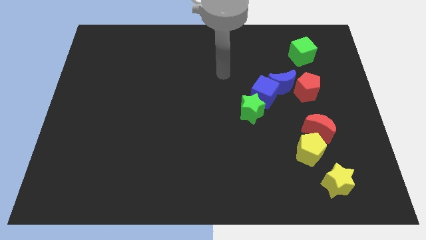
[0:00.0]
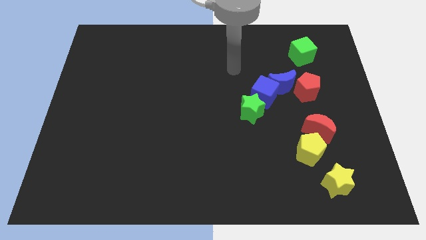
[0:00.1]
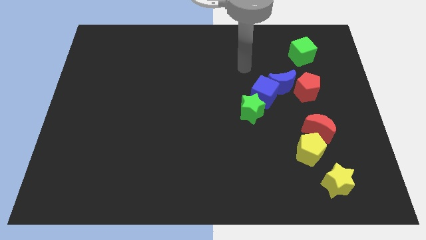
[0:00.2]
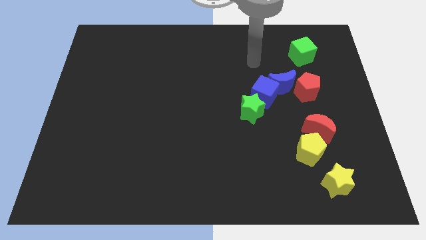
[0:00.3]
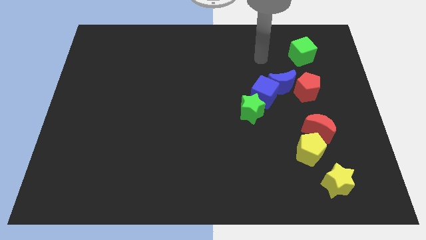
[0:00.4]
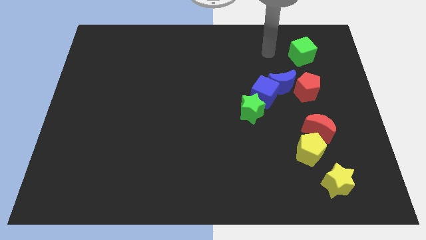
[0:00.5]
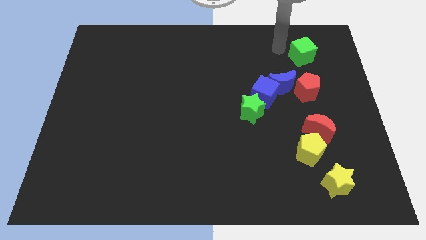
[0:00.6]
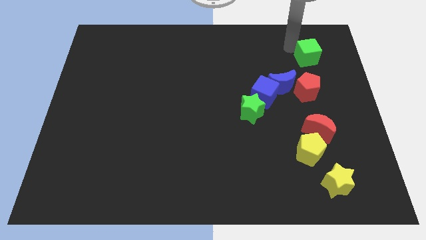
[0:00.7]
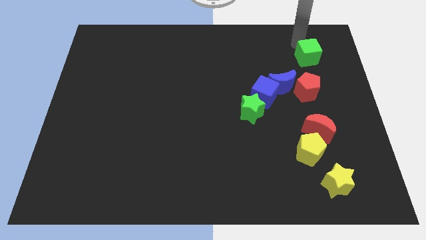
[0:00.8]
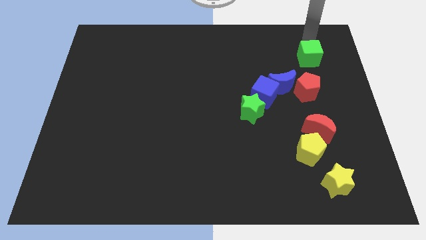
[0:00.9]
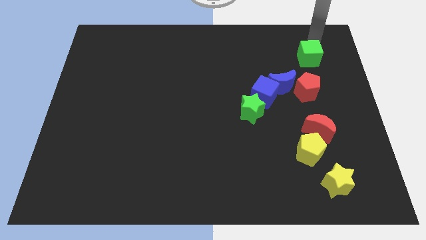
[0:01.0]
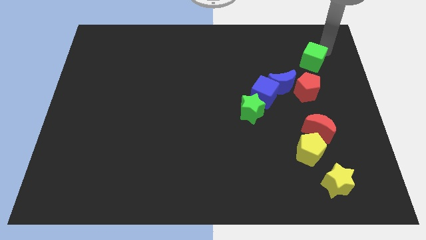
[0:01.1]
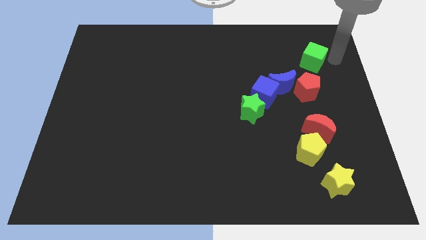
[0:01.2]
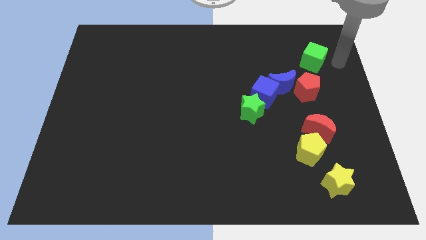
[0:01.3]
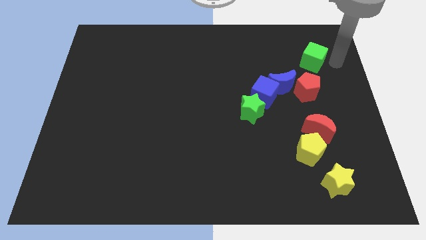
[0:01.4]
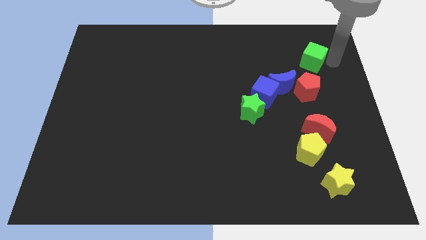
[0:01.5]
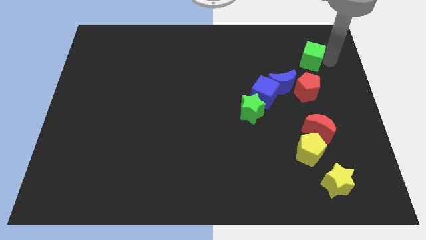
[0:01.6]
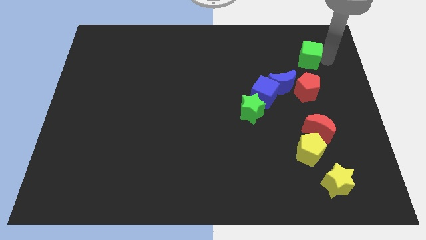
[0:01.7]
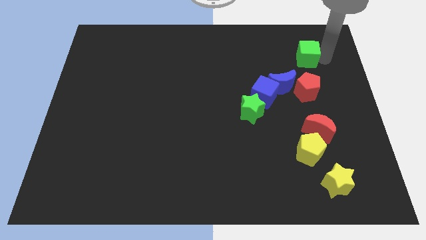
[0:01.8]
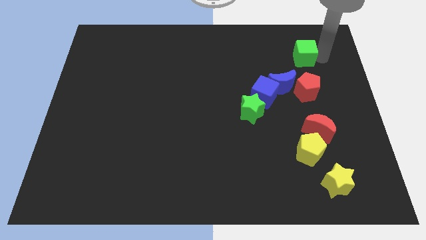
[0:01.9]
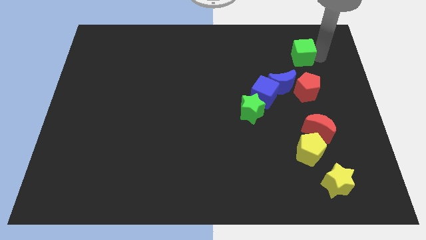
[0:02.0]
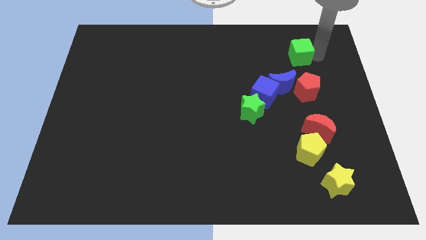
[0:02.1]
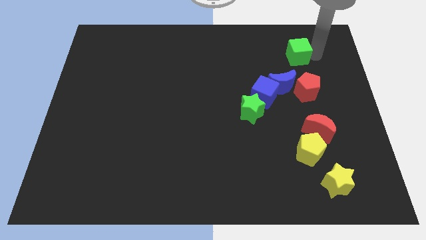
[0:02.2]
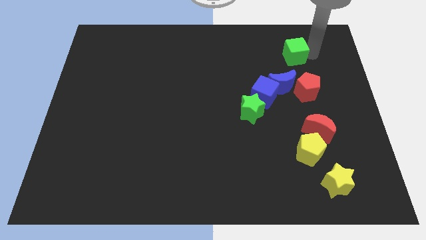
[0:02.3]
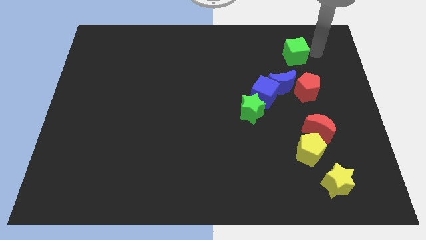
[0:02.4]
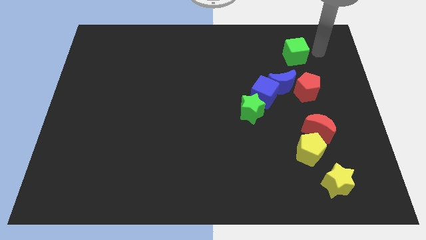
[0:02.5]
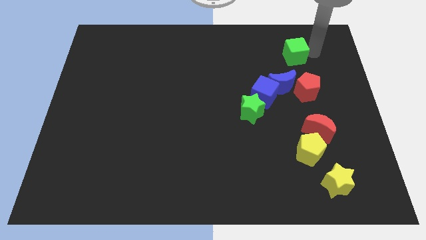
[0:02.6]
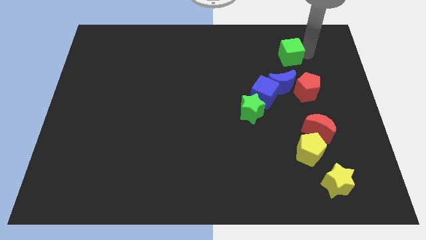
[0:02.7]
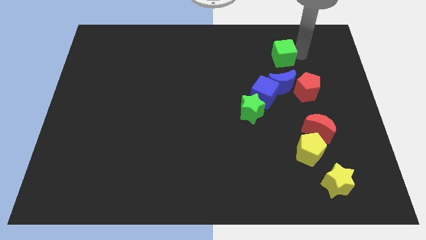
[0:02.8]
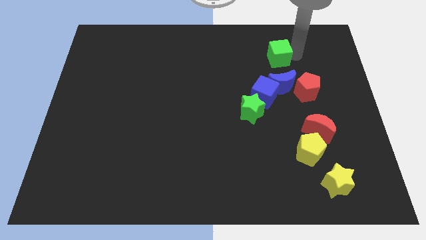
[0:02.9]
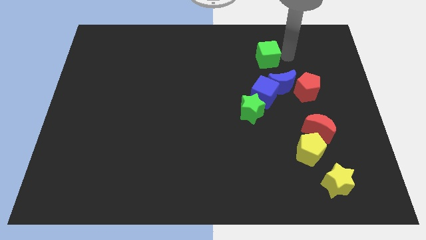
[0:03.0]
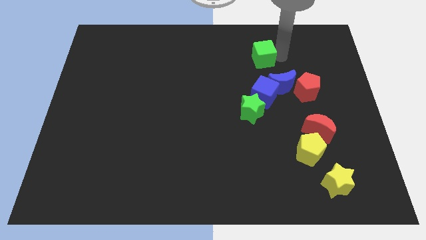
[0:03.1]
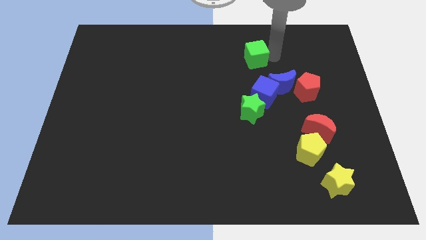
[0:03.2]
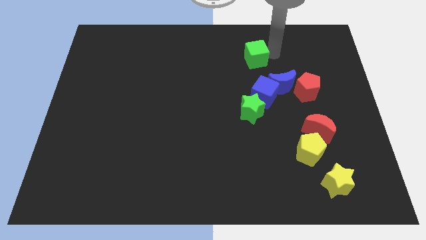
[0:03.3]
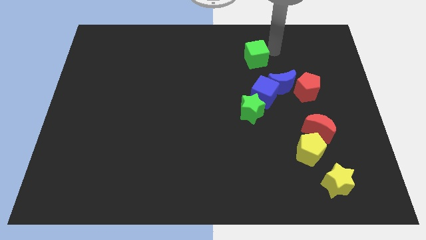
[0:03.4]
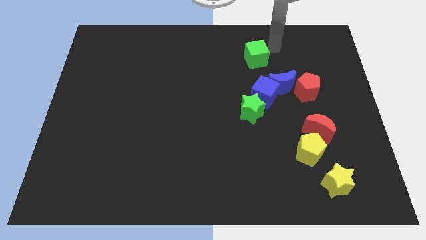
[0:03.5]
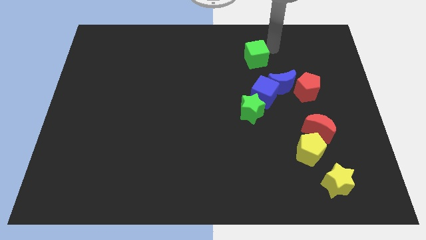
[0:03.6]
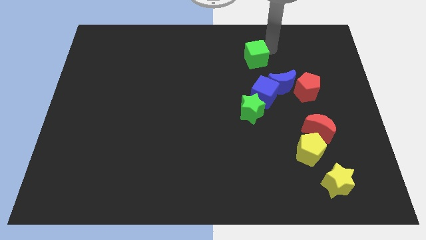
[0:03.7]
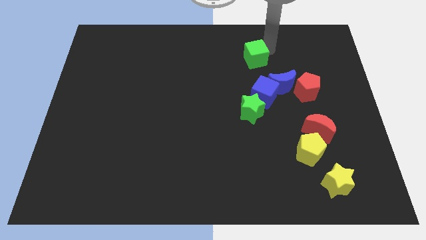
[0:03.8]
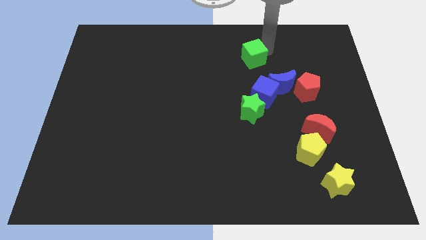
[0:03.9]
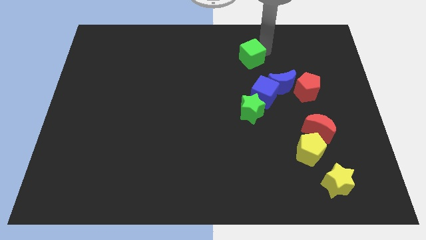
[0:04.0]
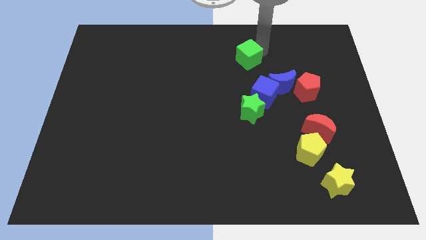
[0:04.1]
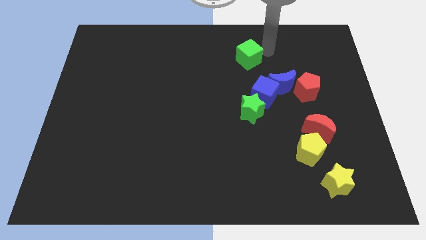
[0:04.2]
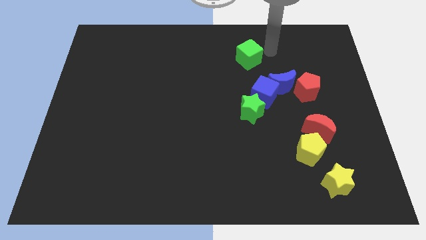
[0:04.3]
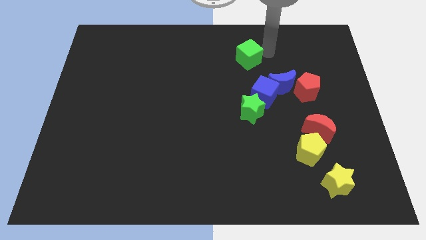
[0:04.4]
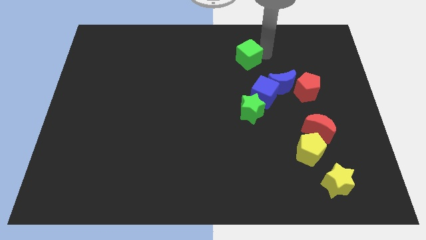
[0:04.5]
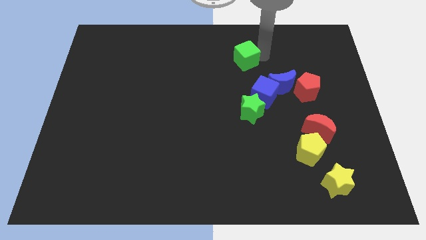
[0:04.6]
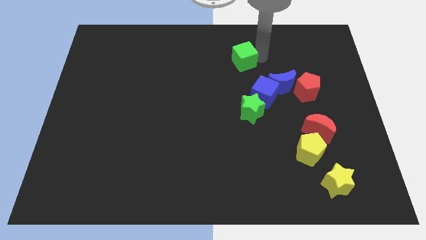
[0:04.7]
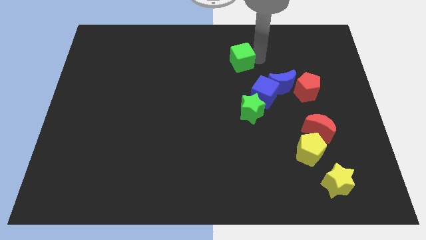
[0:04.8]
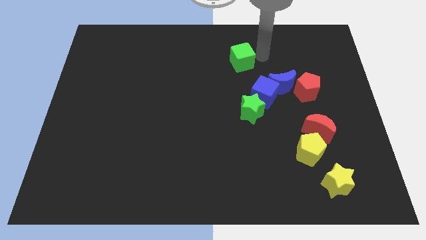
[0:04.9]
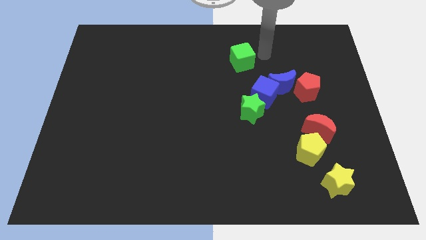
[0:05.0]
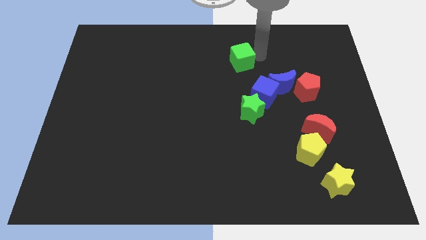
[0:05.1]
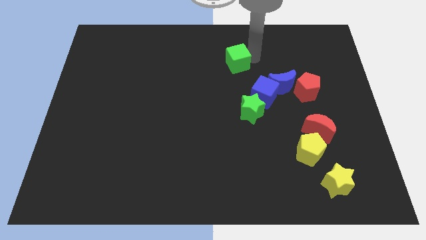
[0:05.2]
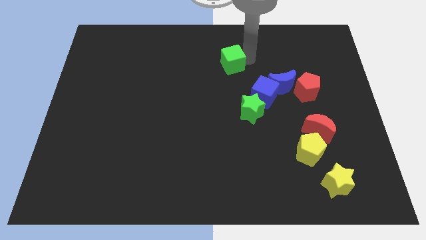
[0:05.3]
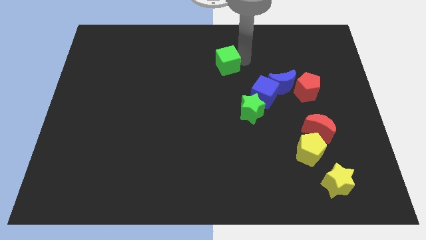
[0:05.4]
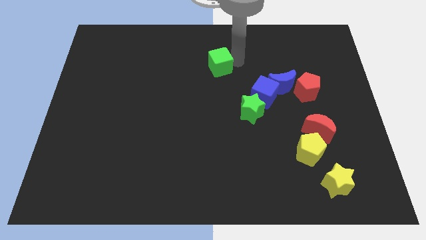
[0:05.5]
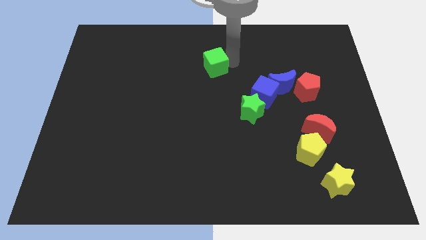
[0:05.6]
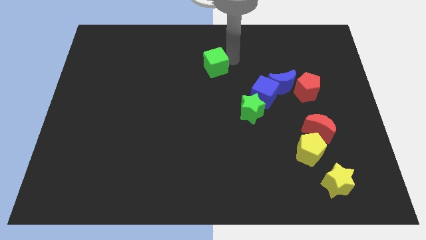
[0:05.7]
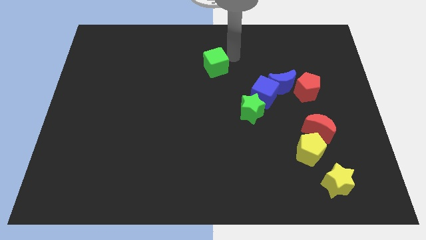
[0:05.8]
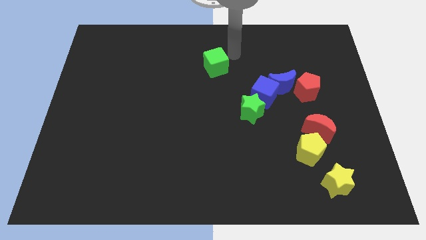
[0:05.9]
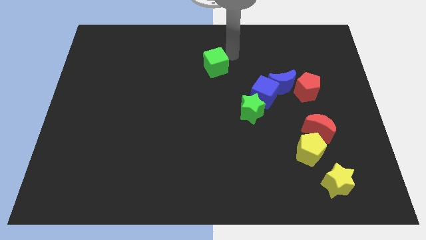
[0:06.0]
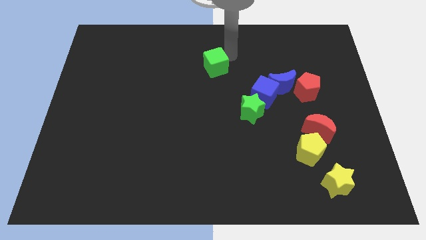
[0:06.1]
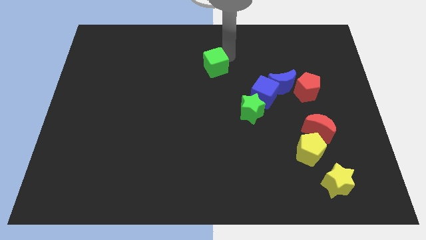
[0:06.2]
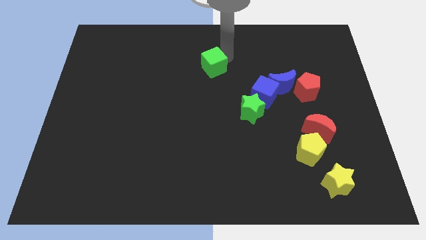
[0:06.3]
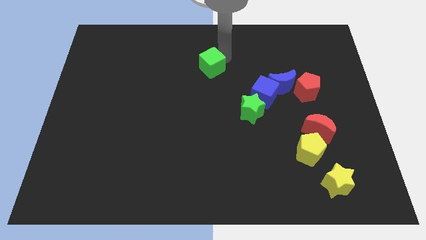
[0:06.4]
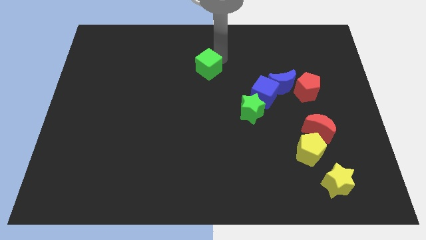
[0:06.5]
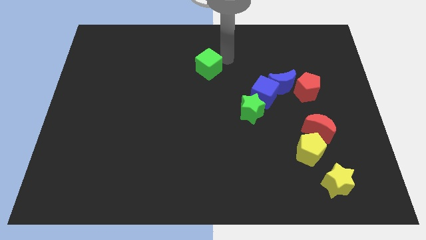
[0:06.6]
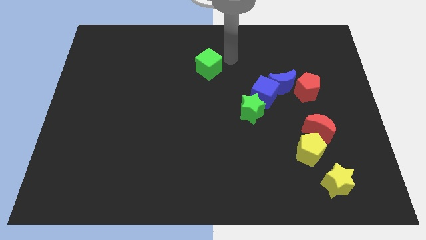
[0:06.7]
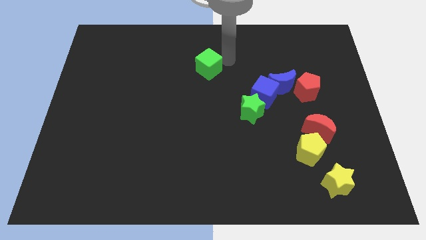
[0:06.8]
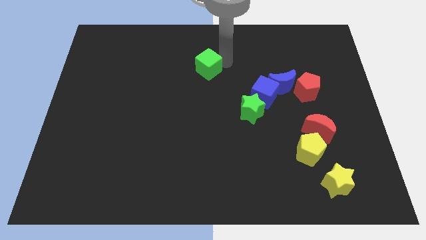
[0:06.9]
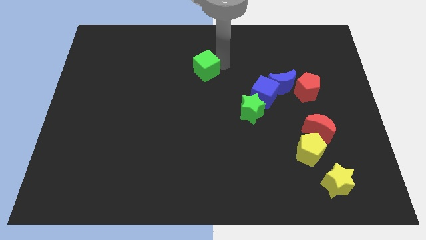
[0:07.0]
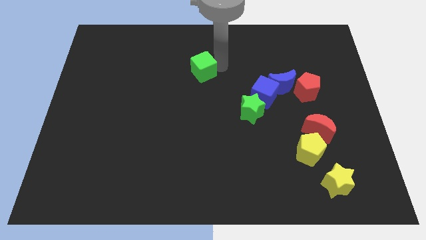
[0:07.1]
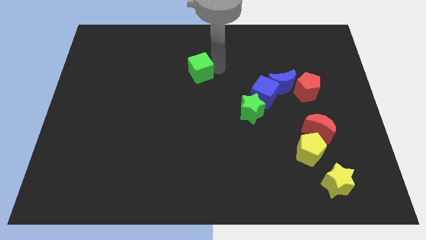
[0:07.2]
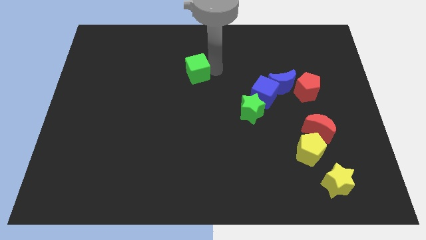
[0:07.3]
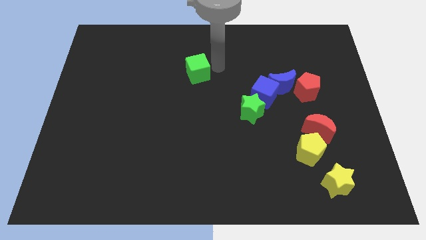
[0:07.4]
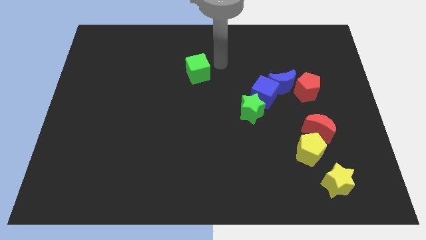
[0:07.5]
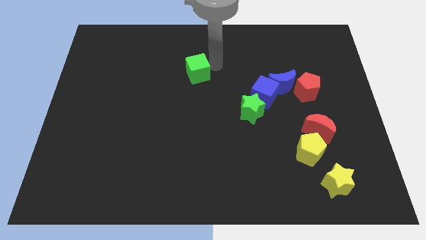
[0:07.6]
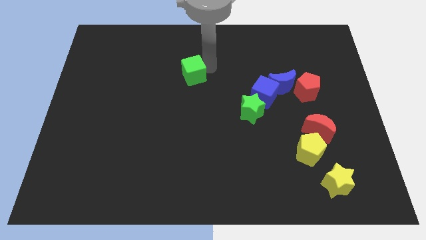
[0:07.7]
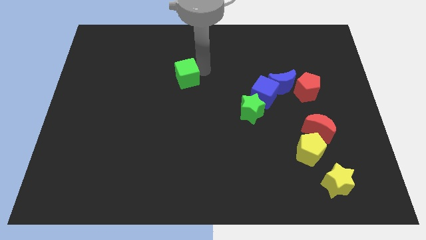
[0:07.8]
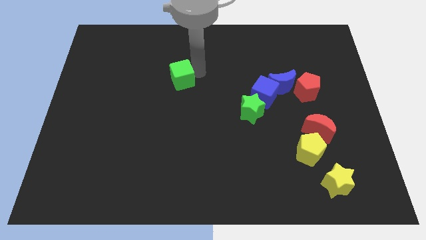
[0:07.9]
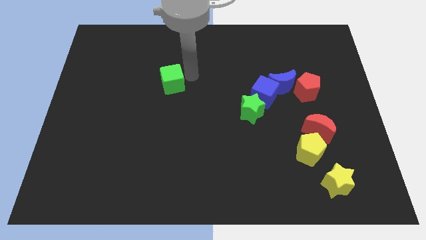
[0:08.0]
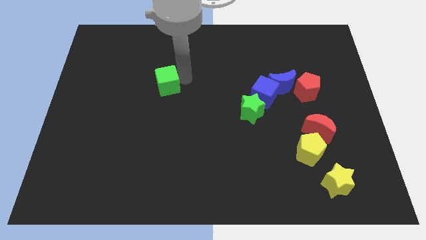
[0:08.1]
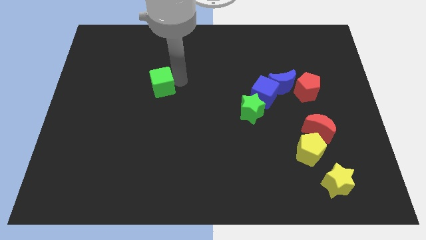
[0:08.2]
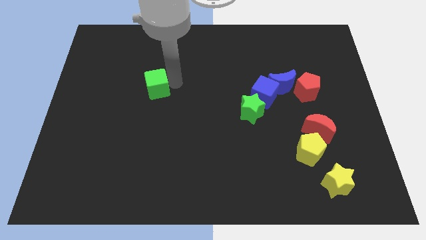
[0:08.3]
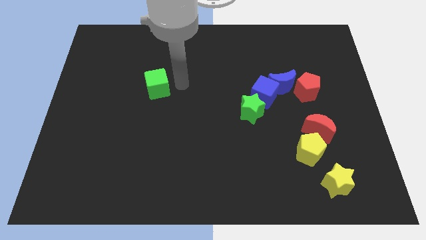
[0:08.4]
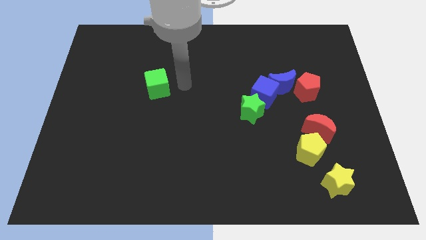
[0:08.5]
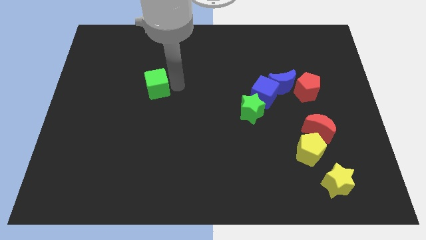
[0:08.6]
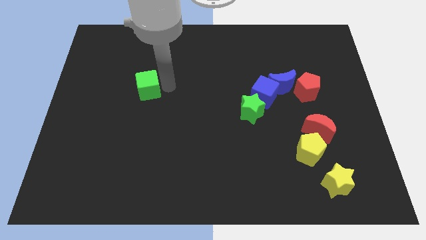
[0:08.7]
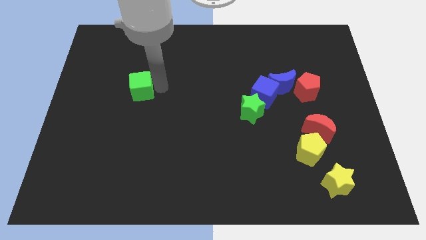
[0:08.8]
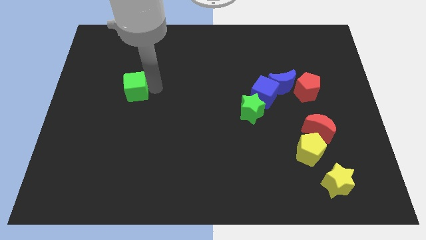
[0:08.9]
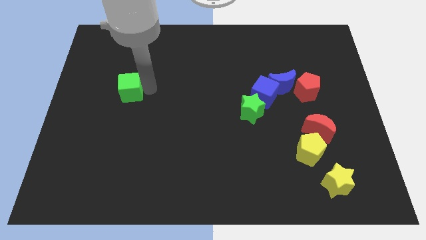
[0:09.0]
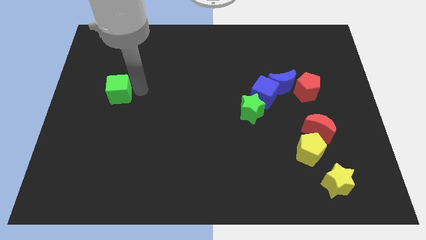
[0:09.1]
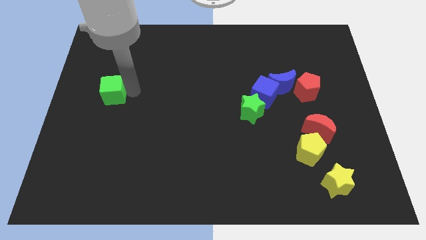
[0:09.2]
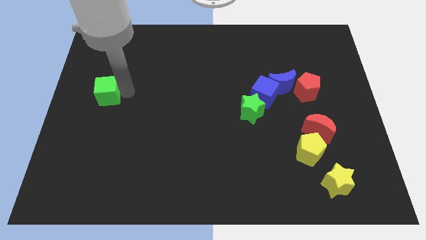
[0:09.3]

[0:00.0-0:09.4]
slide the green cube to the left side
